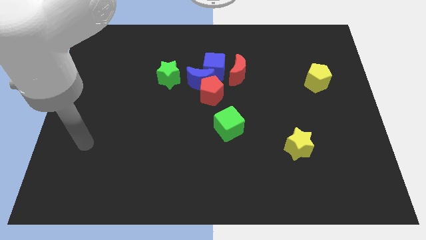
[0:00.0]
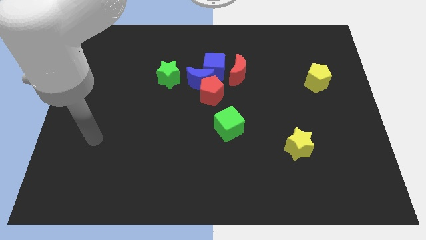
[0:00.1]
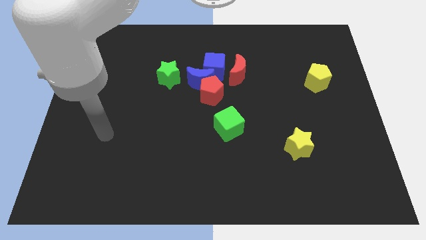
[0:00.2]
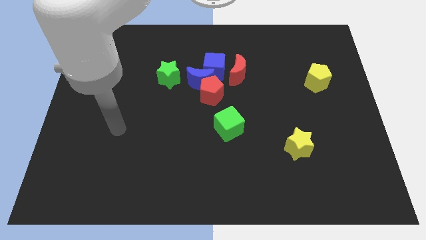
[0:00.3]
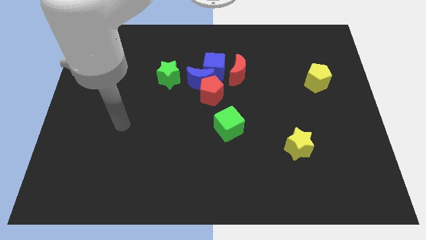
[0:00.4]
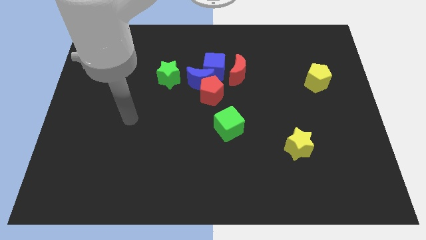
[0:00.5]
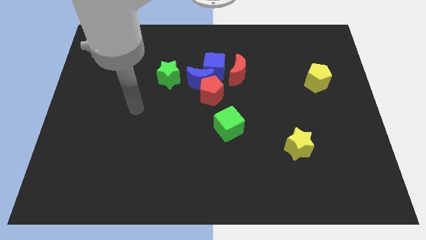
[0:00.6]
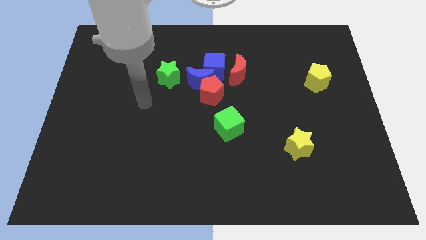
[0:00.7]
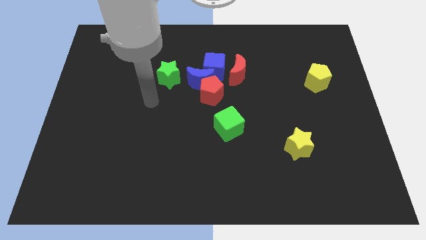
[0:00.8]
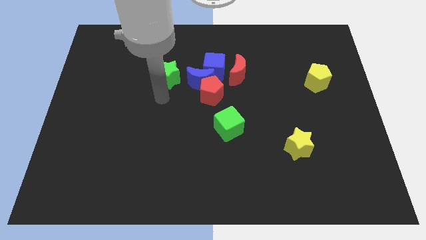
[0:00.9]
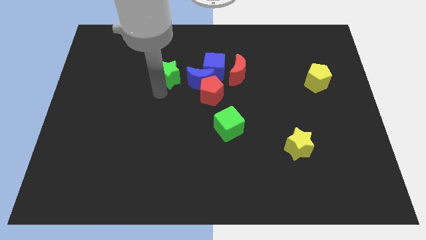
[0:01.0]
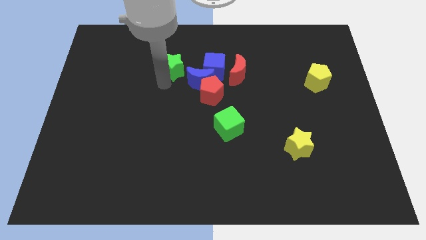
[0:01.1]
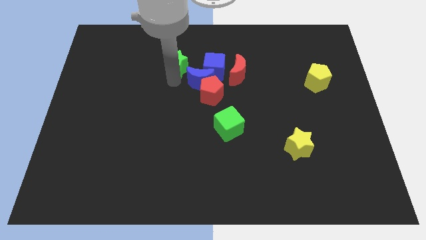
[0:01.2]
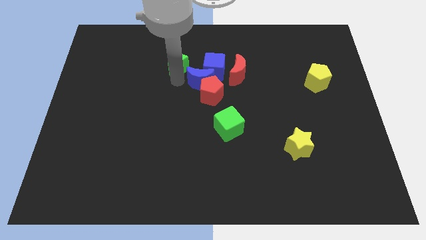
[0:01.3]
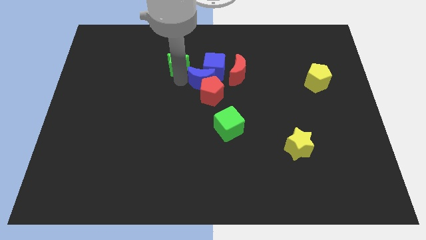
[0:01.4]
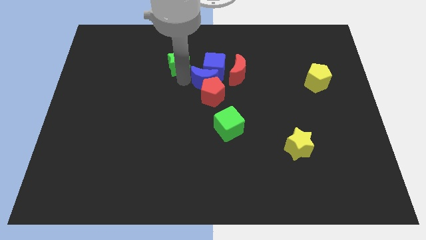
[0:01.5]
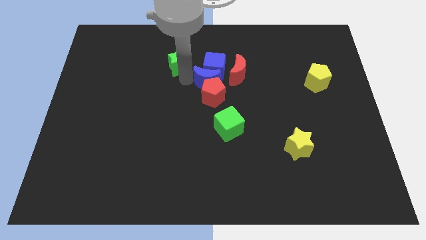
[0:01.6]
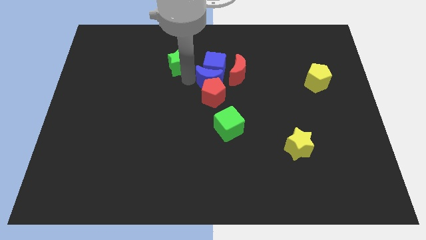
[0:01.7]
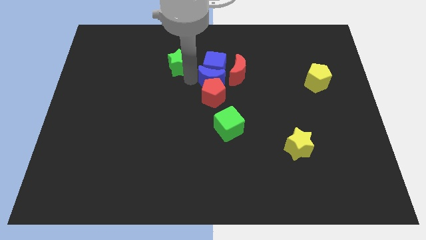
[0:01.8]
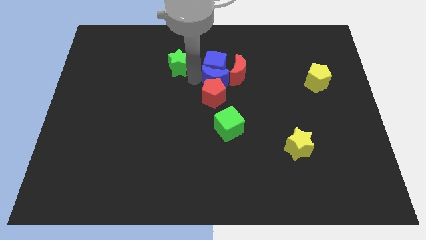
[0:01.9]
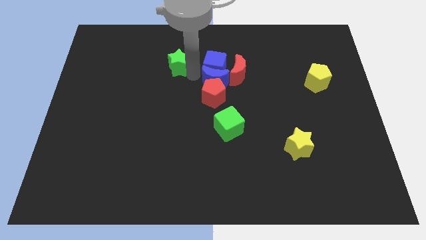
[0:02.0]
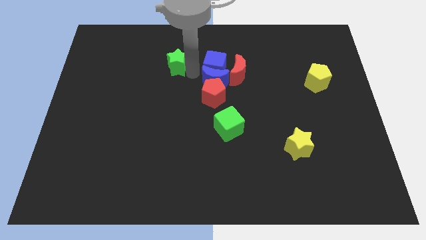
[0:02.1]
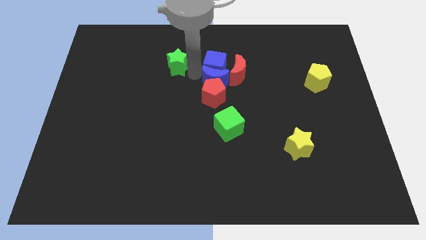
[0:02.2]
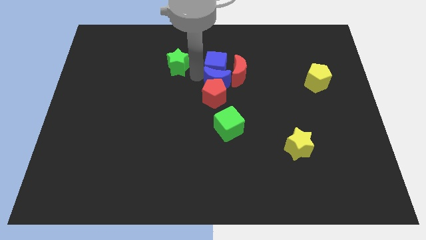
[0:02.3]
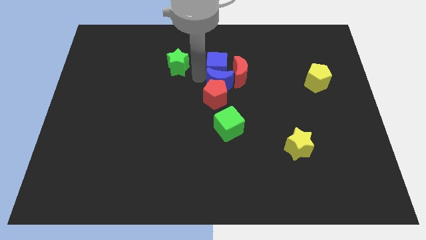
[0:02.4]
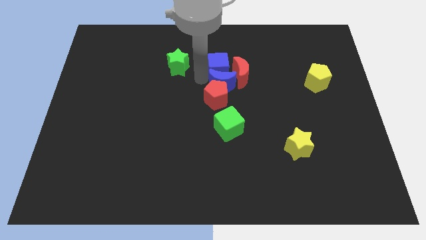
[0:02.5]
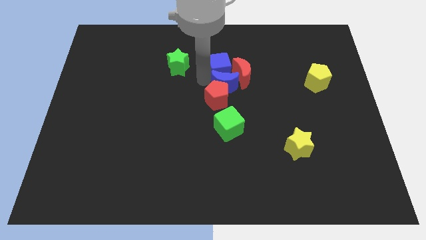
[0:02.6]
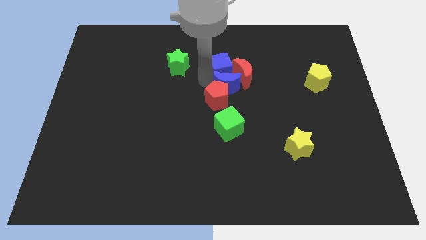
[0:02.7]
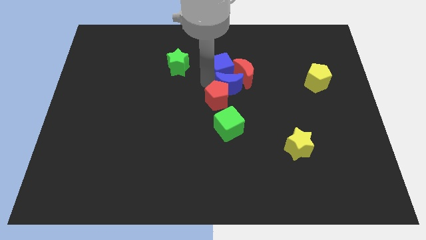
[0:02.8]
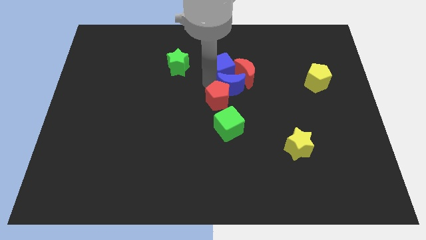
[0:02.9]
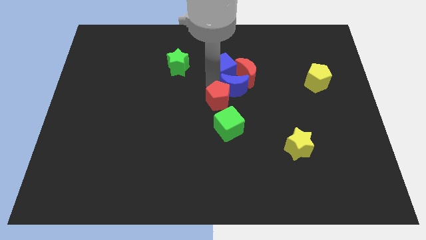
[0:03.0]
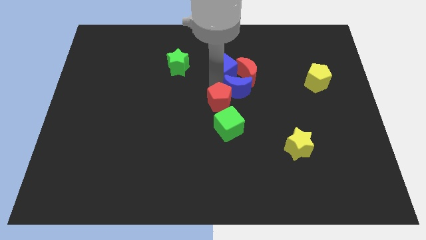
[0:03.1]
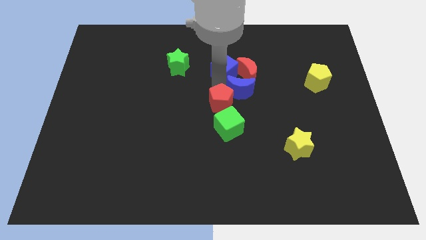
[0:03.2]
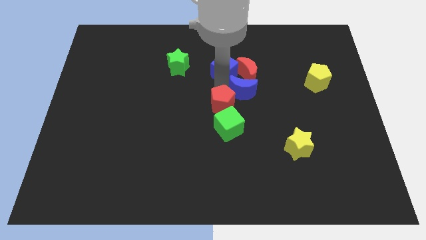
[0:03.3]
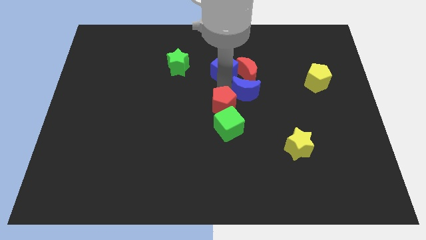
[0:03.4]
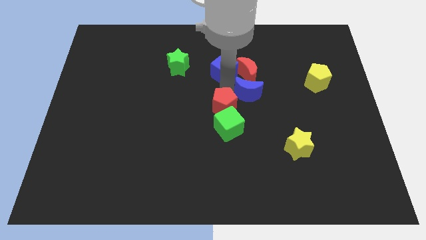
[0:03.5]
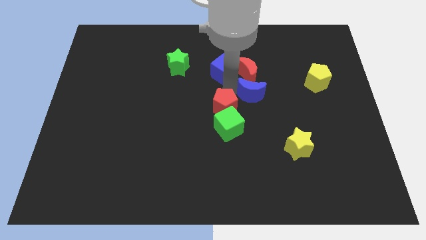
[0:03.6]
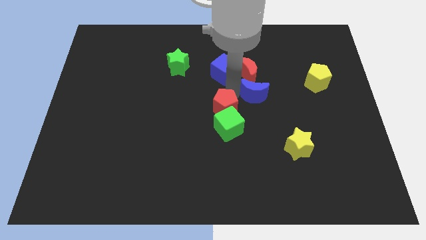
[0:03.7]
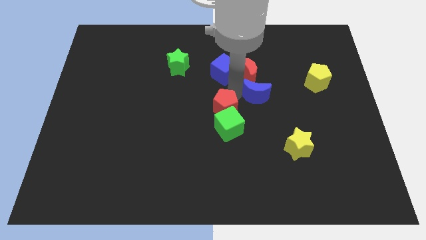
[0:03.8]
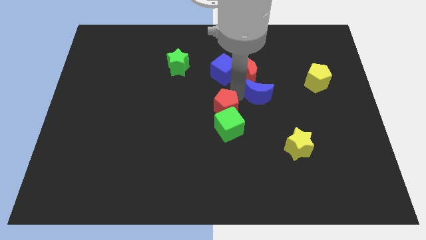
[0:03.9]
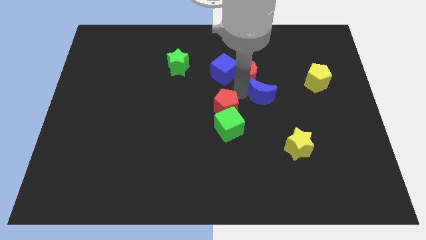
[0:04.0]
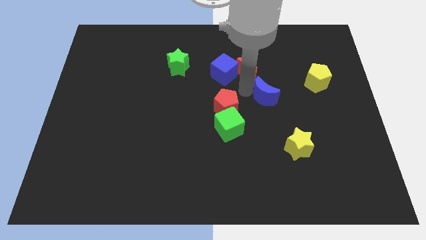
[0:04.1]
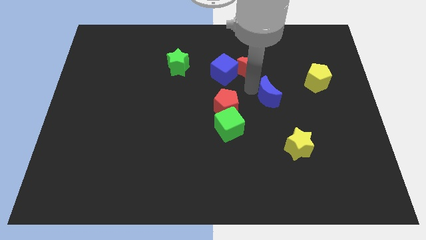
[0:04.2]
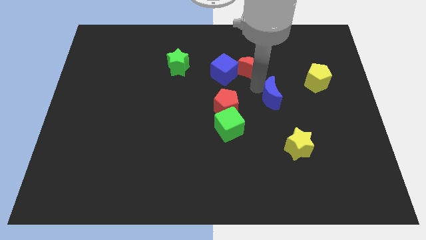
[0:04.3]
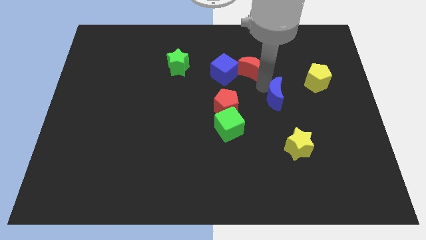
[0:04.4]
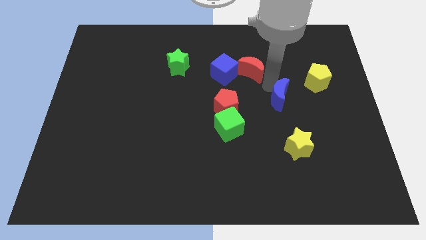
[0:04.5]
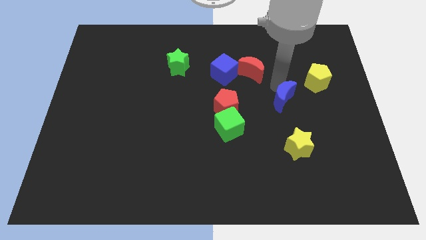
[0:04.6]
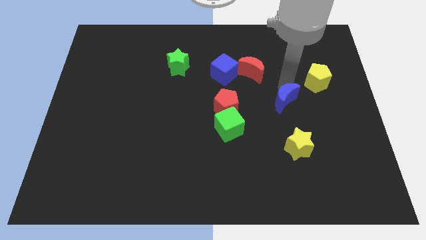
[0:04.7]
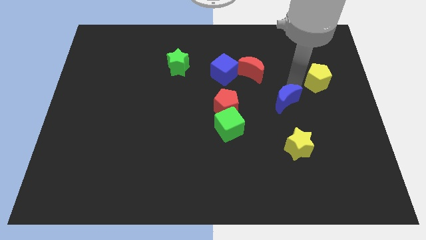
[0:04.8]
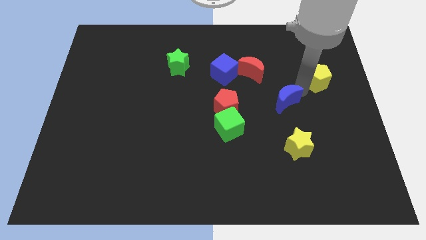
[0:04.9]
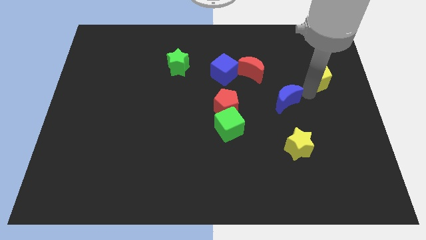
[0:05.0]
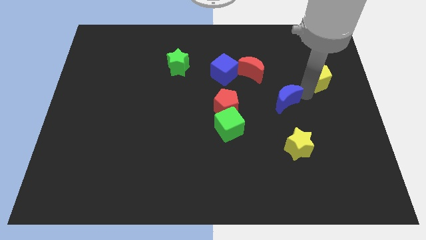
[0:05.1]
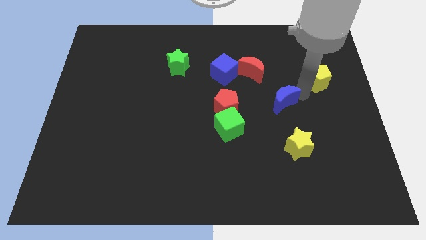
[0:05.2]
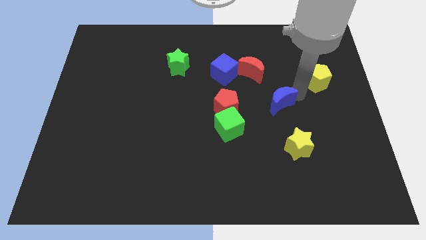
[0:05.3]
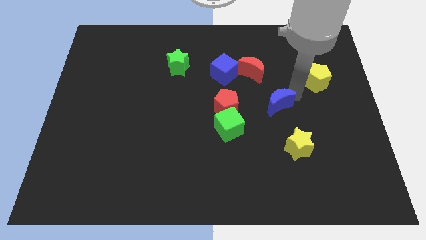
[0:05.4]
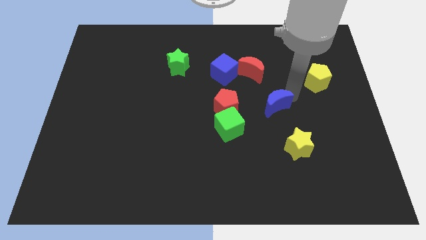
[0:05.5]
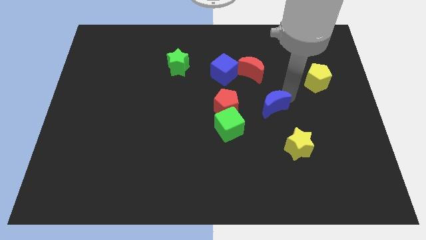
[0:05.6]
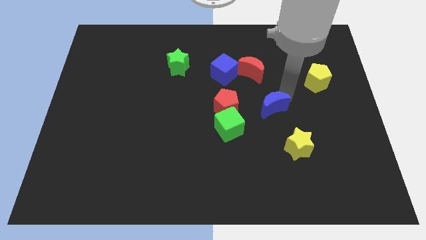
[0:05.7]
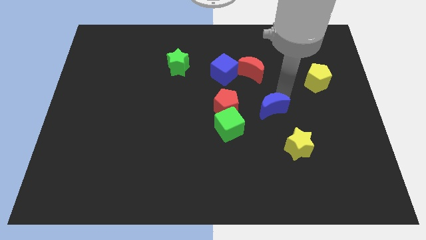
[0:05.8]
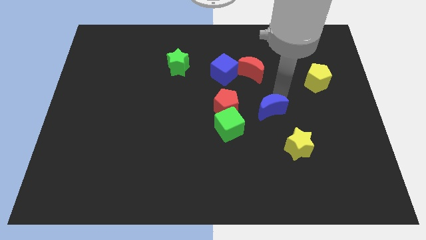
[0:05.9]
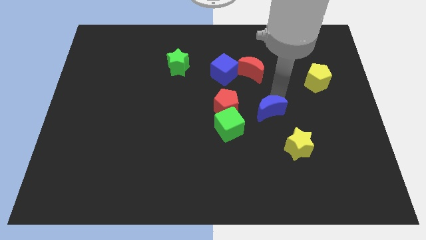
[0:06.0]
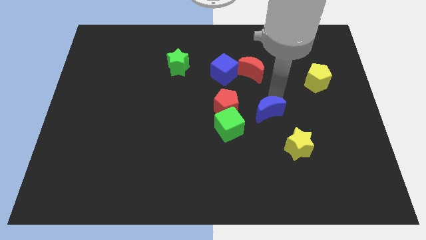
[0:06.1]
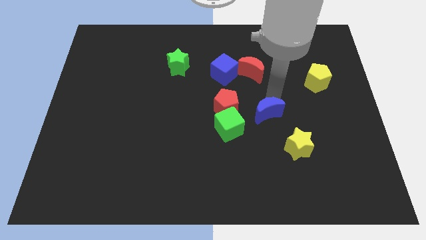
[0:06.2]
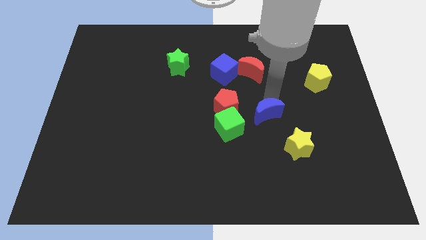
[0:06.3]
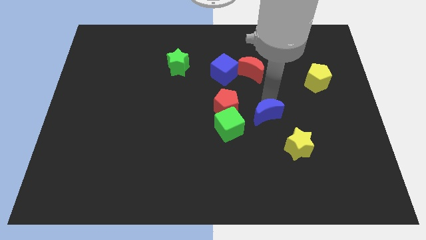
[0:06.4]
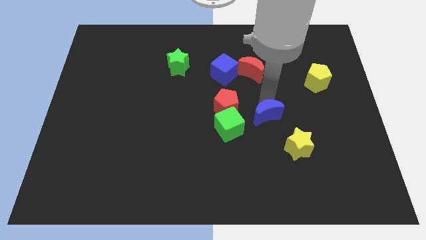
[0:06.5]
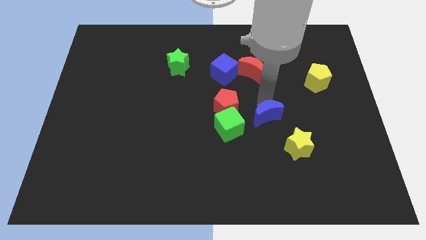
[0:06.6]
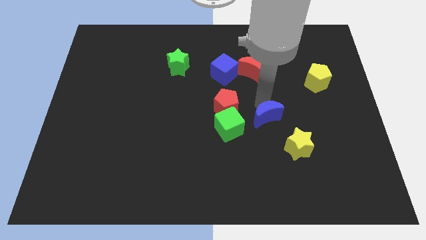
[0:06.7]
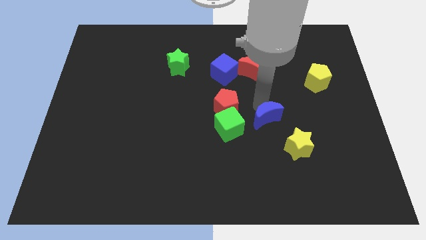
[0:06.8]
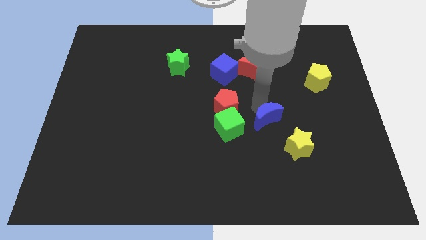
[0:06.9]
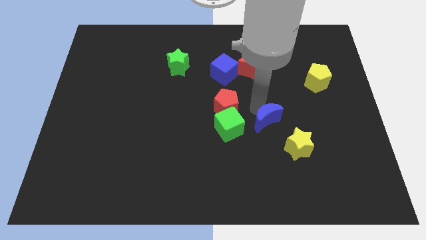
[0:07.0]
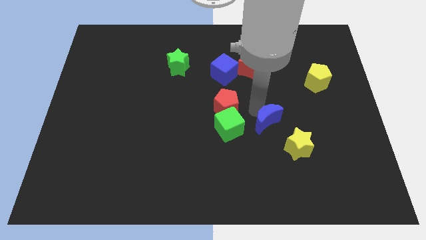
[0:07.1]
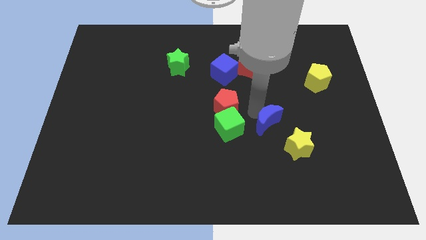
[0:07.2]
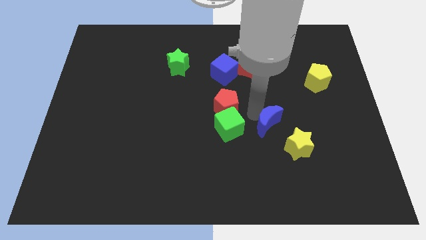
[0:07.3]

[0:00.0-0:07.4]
slide the blue moon downwards and to the right

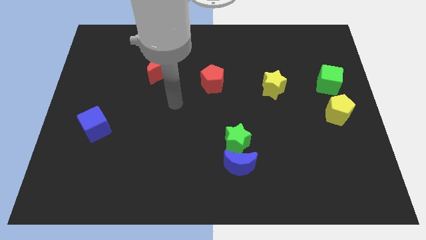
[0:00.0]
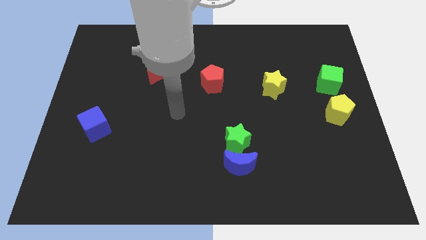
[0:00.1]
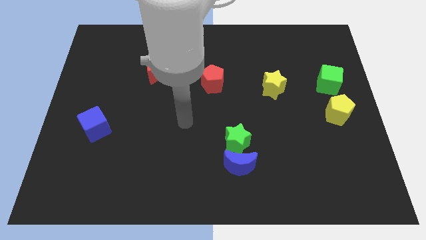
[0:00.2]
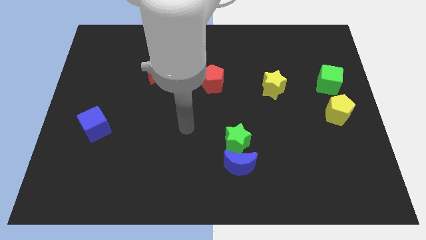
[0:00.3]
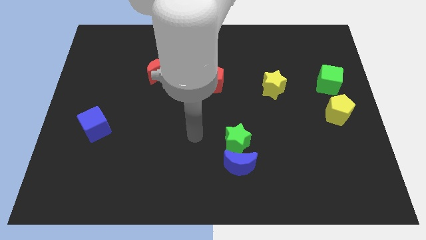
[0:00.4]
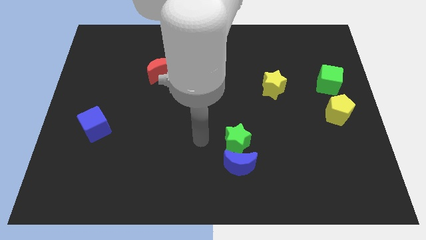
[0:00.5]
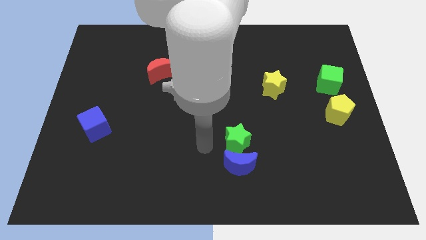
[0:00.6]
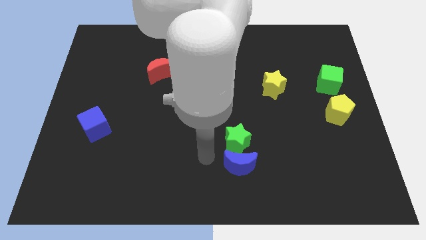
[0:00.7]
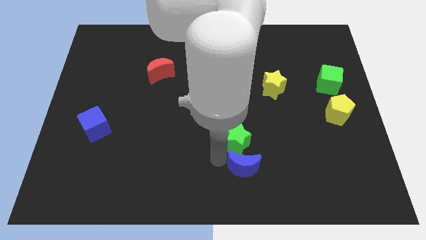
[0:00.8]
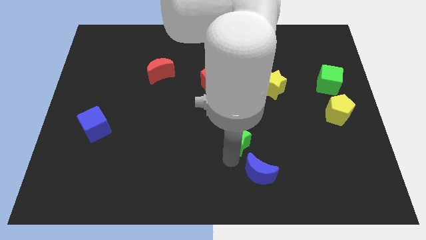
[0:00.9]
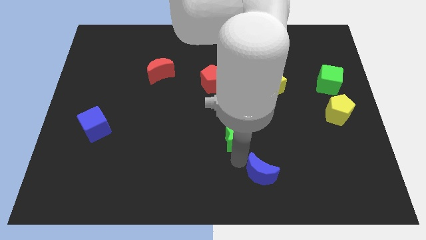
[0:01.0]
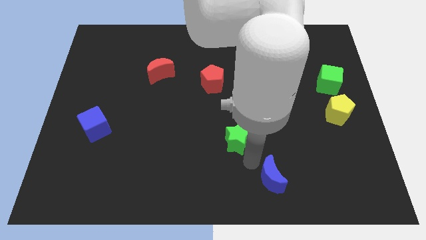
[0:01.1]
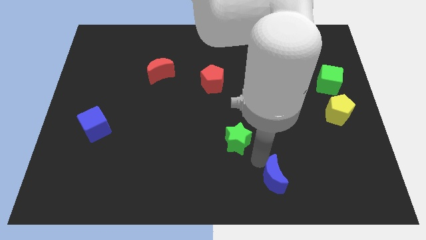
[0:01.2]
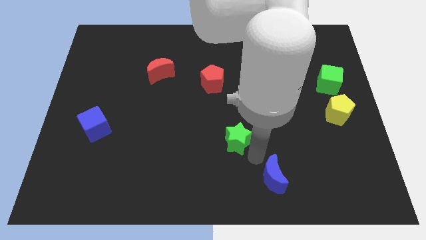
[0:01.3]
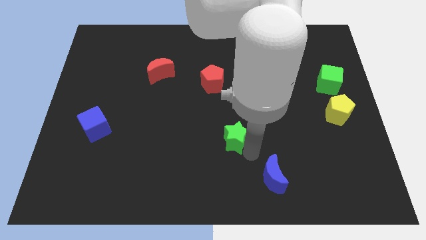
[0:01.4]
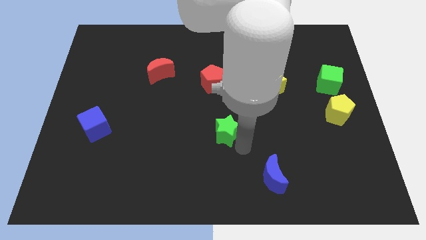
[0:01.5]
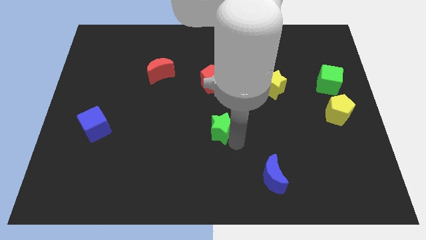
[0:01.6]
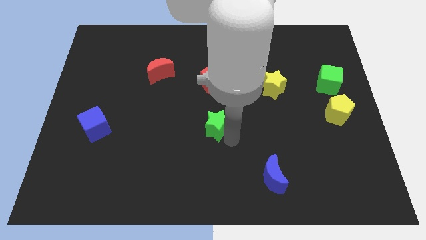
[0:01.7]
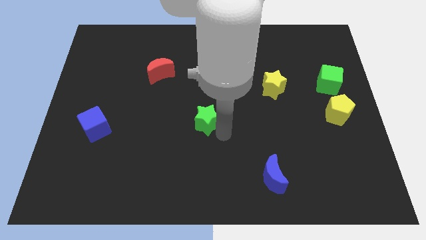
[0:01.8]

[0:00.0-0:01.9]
move the green star diagonally upwards and to the left a little
